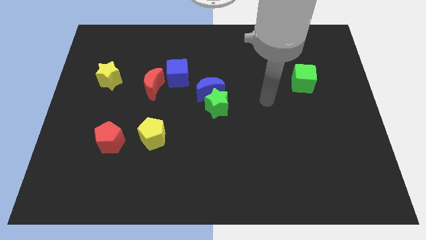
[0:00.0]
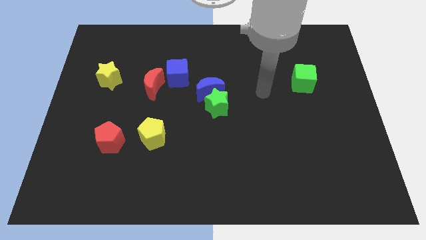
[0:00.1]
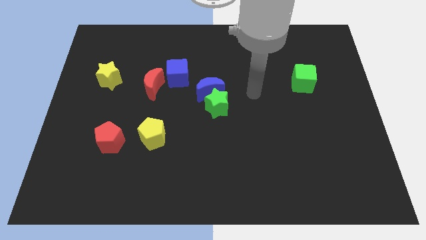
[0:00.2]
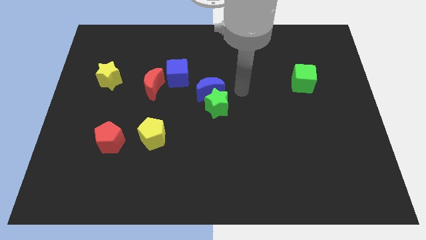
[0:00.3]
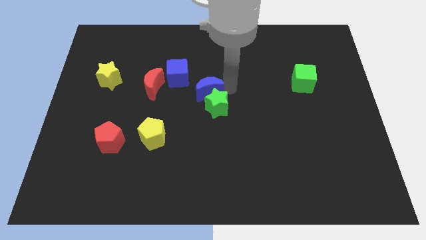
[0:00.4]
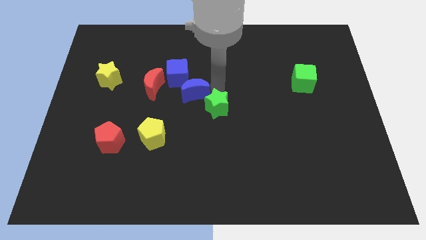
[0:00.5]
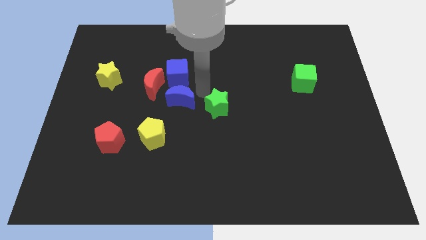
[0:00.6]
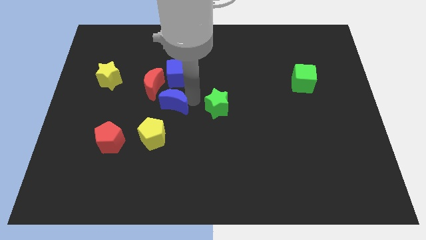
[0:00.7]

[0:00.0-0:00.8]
move the green star away from the blue moon

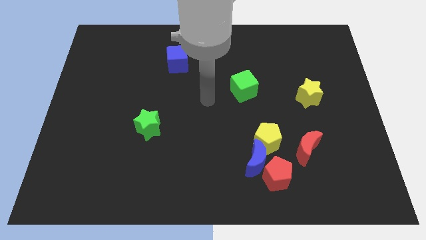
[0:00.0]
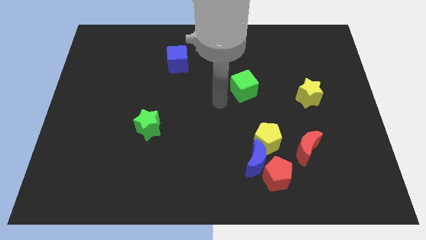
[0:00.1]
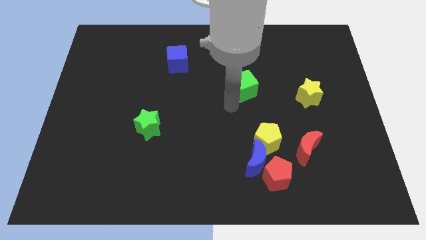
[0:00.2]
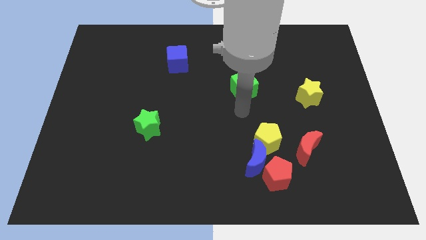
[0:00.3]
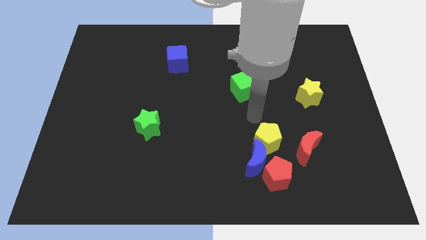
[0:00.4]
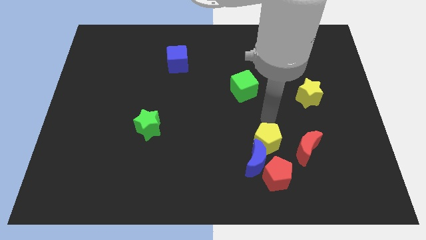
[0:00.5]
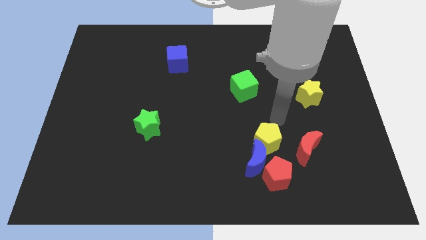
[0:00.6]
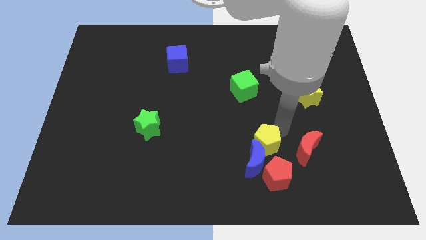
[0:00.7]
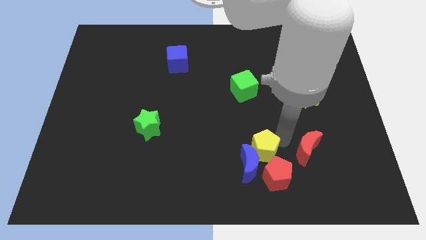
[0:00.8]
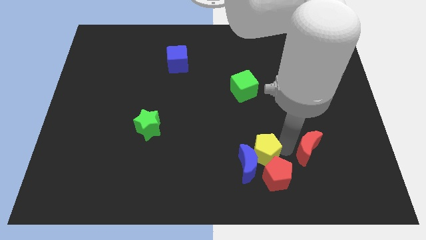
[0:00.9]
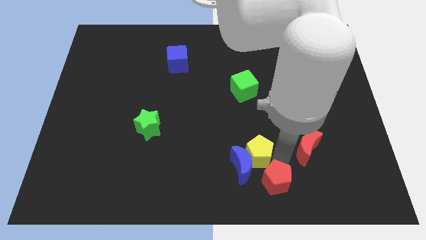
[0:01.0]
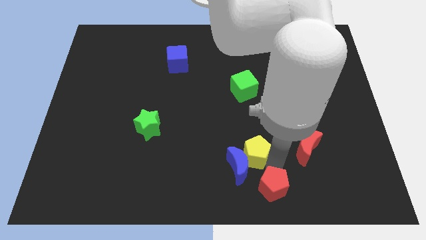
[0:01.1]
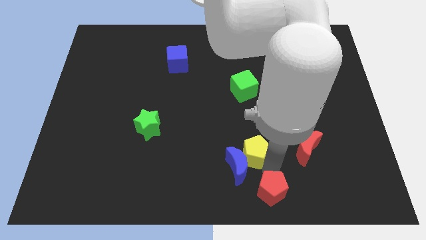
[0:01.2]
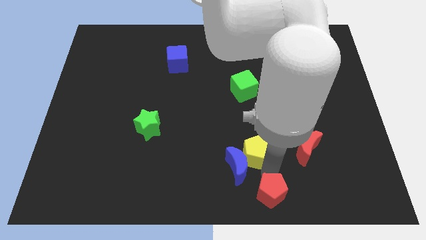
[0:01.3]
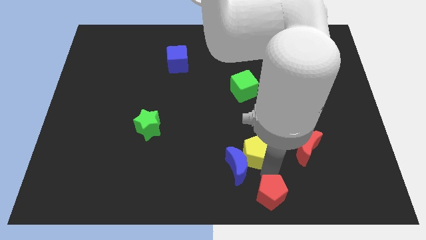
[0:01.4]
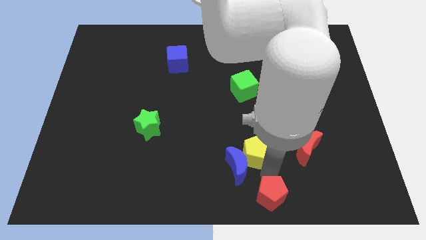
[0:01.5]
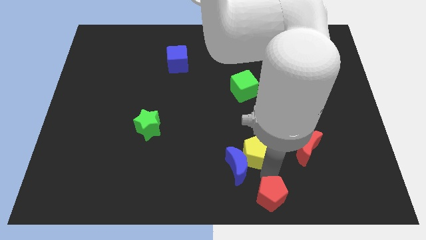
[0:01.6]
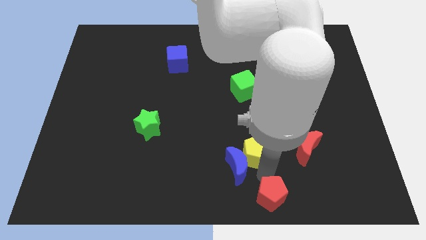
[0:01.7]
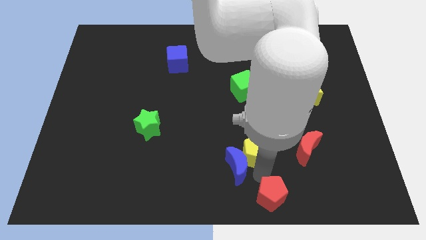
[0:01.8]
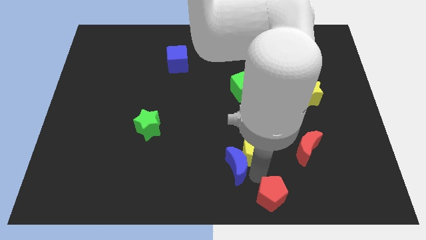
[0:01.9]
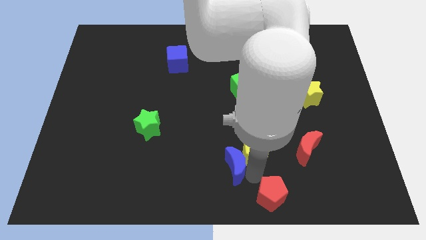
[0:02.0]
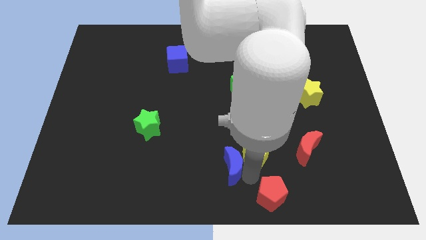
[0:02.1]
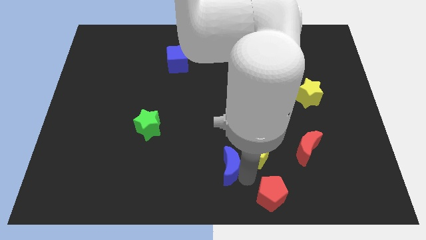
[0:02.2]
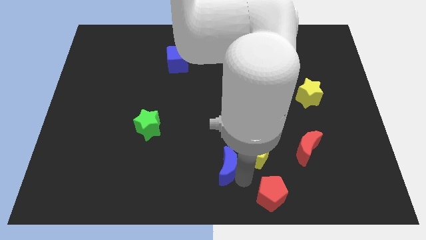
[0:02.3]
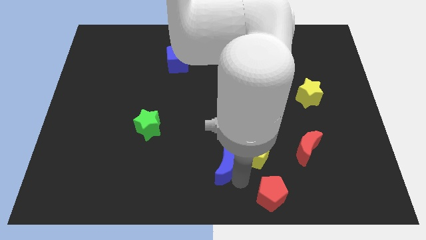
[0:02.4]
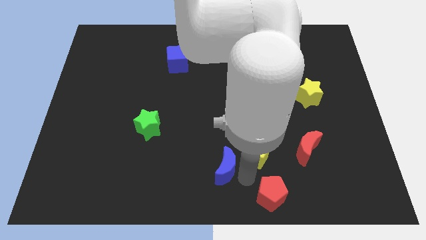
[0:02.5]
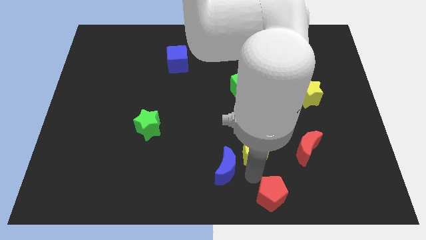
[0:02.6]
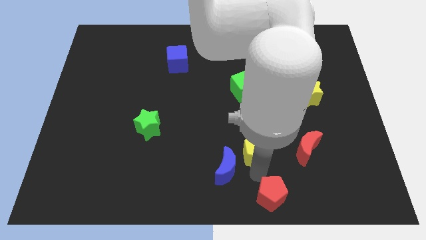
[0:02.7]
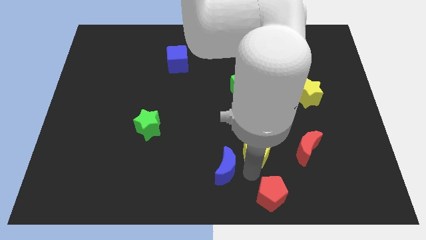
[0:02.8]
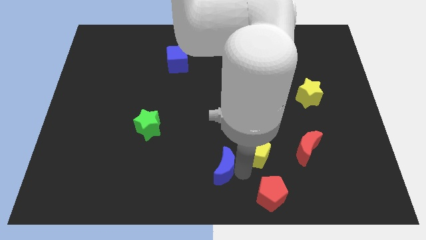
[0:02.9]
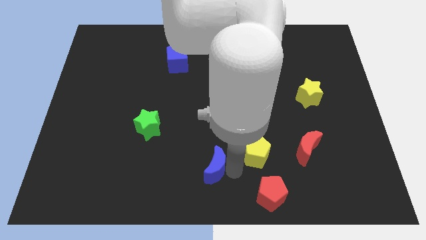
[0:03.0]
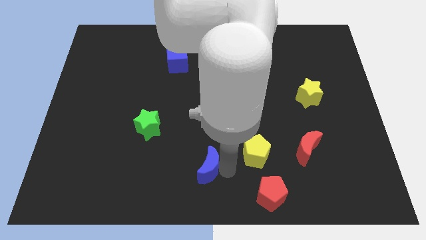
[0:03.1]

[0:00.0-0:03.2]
separate the blue moon from the red pentagon and yellow pentagon

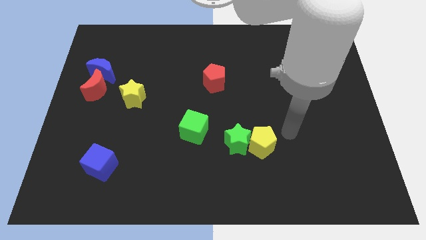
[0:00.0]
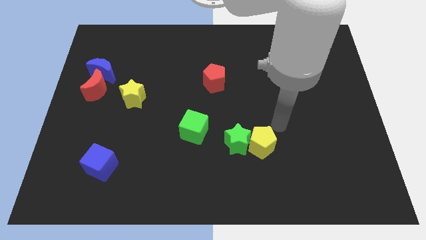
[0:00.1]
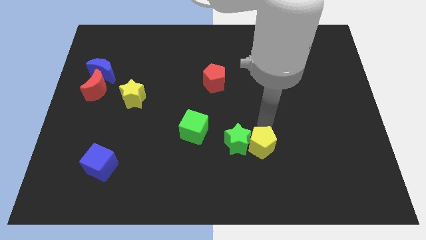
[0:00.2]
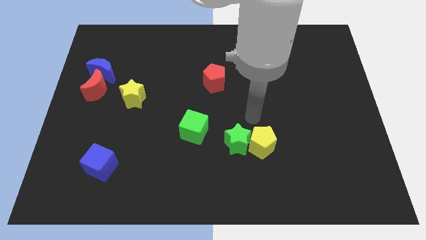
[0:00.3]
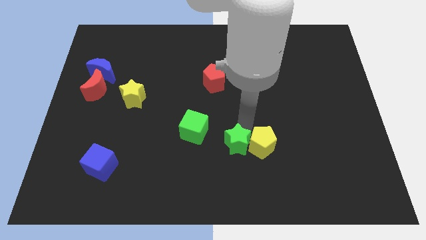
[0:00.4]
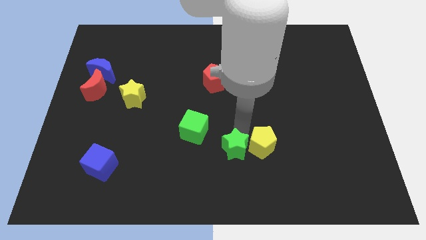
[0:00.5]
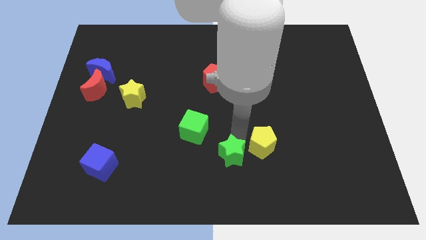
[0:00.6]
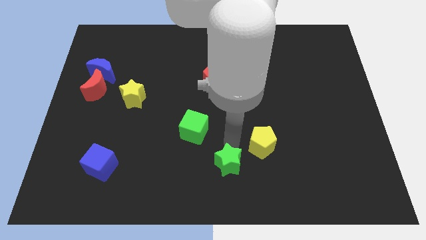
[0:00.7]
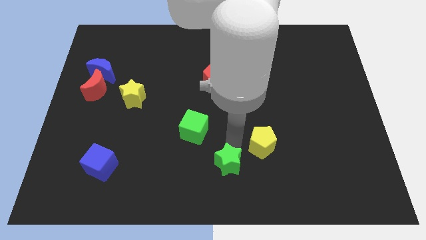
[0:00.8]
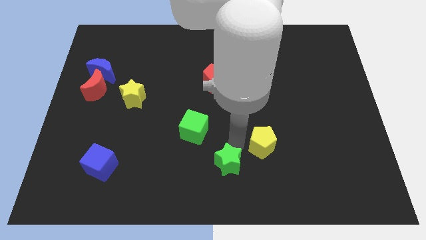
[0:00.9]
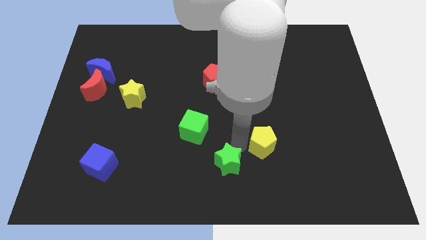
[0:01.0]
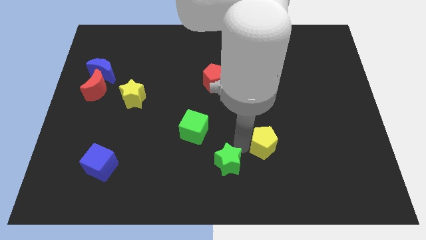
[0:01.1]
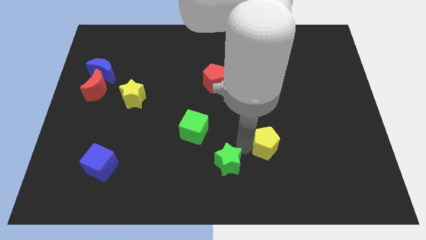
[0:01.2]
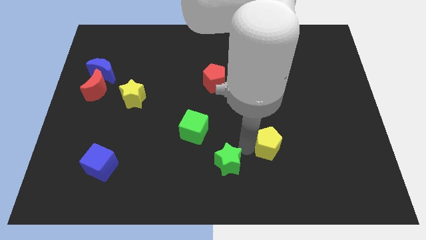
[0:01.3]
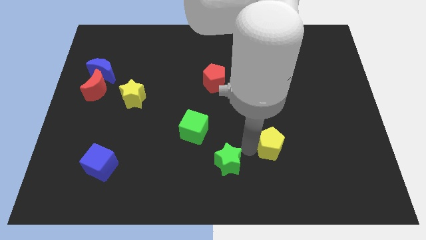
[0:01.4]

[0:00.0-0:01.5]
separate the yellow pentagon from the green star

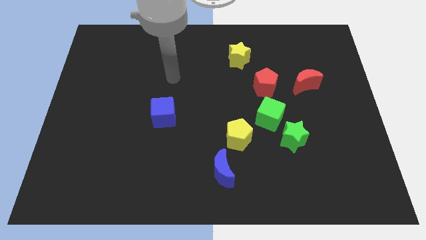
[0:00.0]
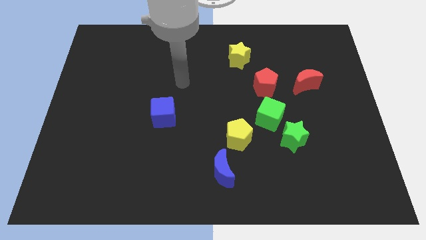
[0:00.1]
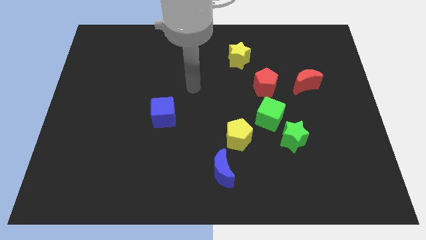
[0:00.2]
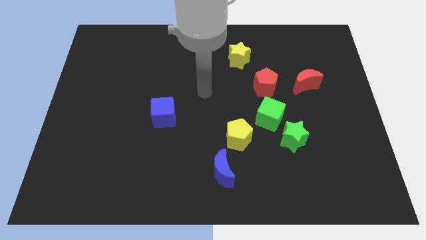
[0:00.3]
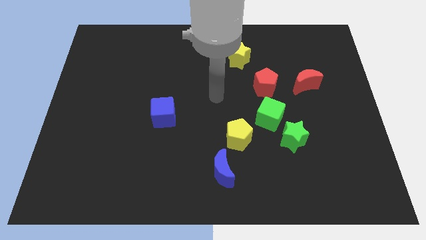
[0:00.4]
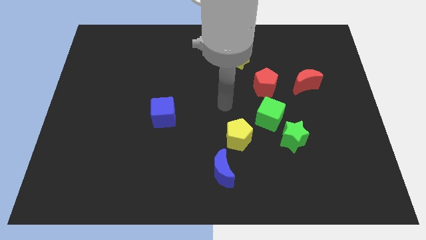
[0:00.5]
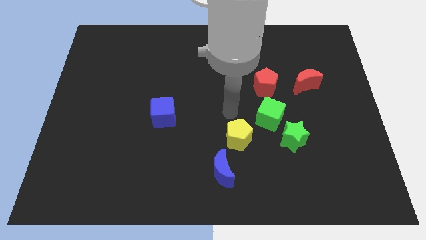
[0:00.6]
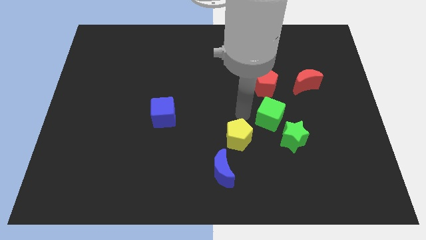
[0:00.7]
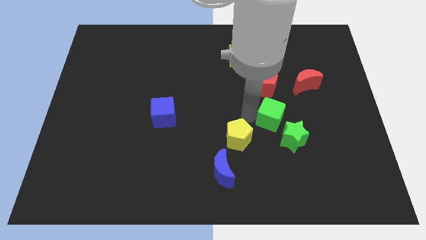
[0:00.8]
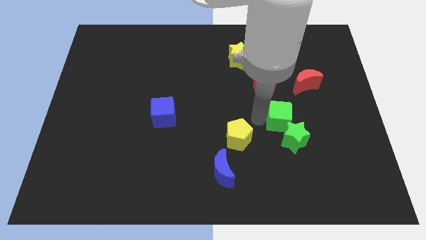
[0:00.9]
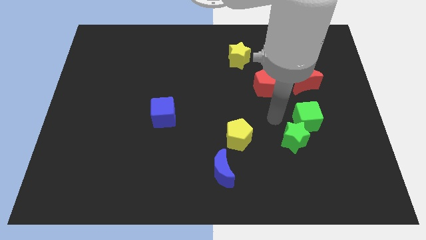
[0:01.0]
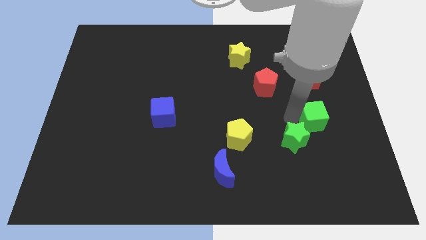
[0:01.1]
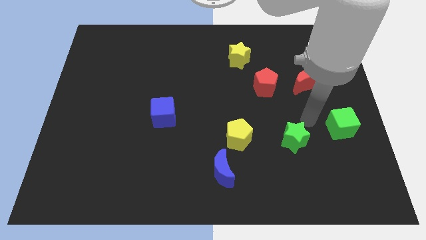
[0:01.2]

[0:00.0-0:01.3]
separate the green star from the green cube

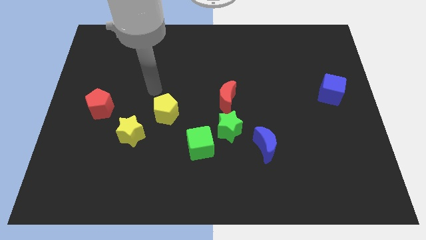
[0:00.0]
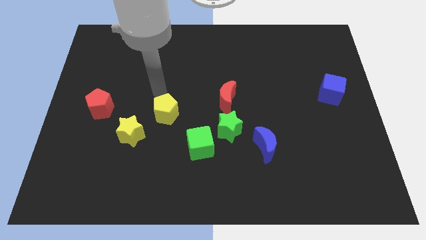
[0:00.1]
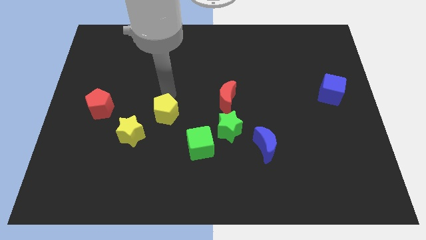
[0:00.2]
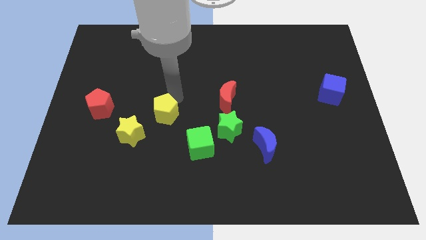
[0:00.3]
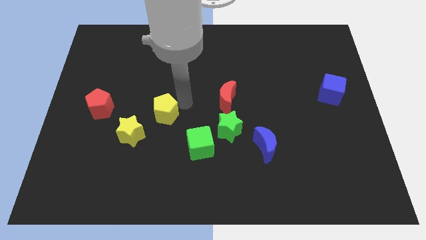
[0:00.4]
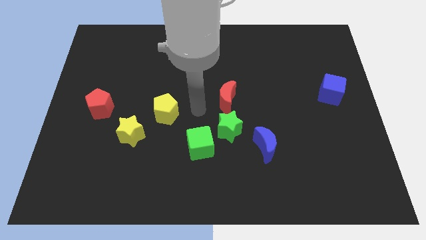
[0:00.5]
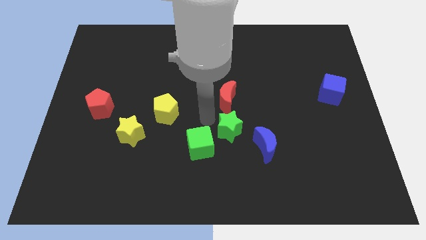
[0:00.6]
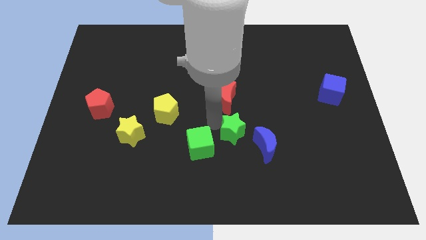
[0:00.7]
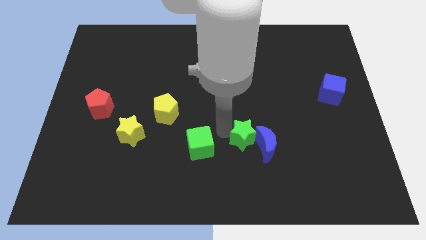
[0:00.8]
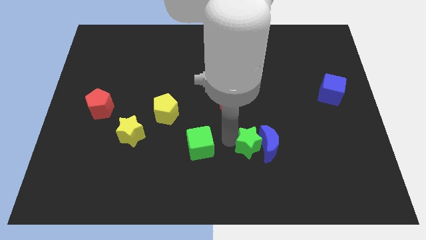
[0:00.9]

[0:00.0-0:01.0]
move the green cube away from the green star

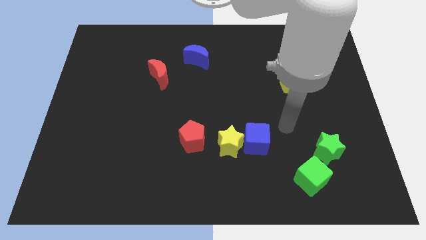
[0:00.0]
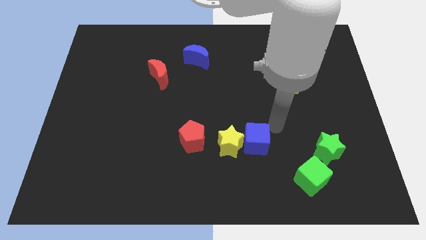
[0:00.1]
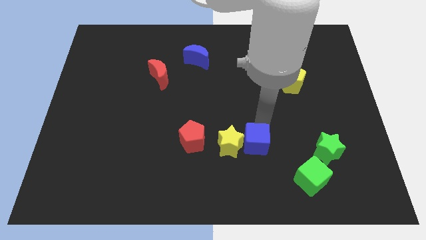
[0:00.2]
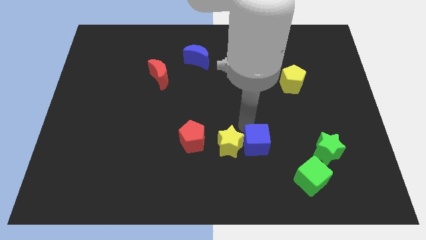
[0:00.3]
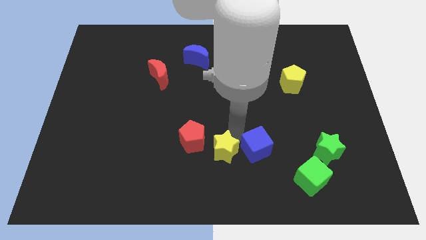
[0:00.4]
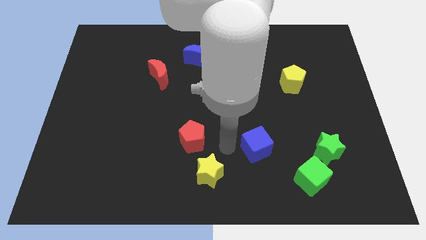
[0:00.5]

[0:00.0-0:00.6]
pull the blue cube apart from the yellow star

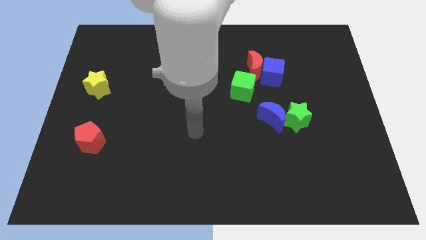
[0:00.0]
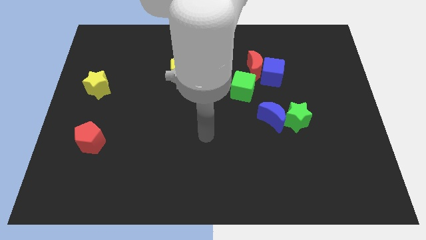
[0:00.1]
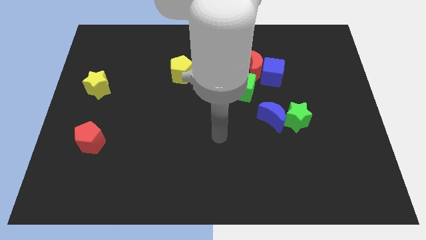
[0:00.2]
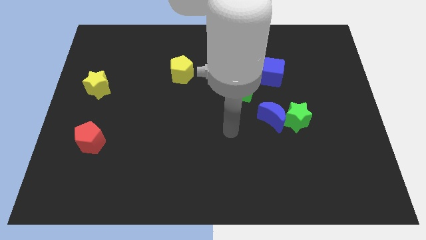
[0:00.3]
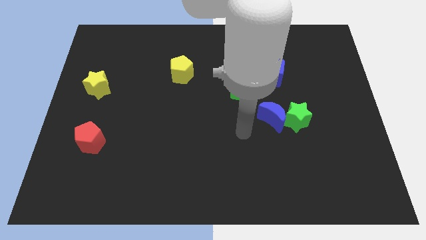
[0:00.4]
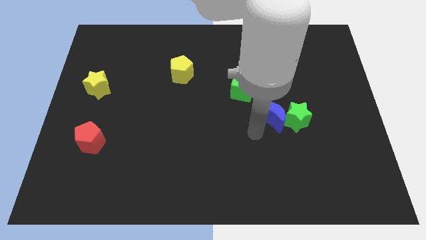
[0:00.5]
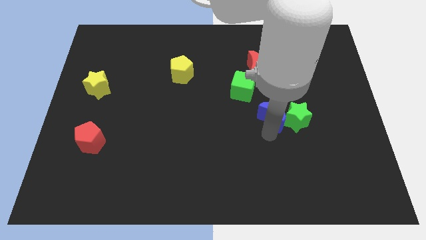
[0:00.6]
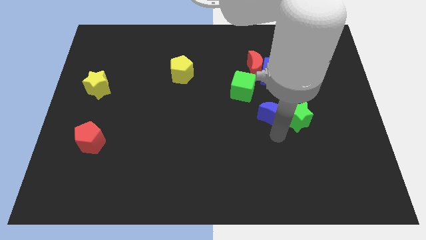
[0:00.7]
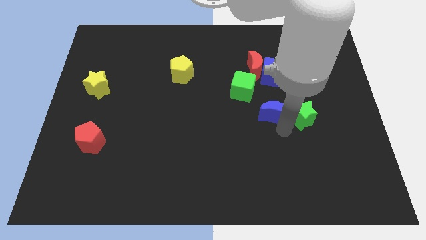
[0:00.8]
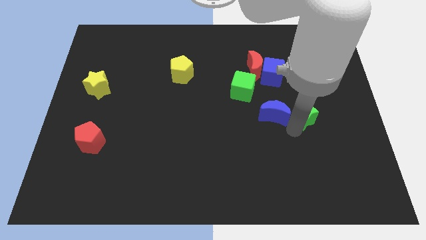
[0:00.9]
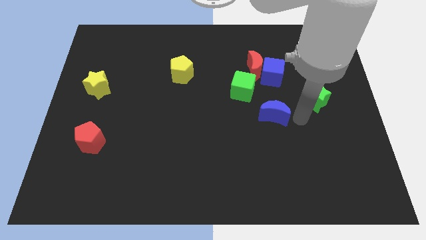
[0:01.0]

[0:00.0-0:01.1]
move the blue moon away from the green star
